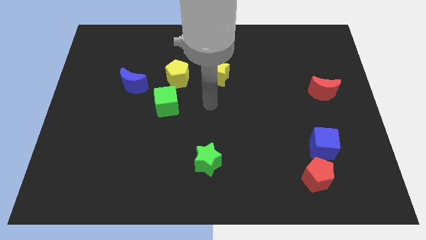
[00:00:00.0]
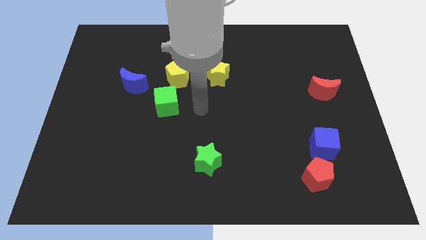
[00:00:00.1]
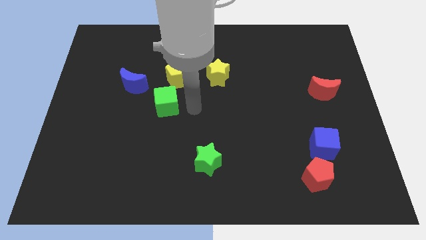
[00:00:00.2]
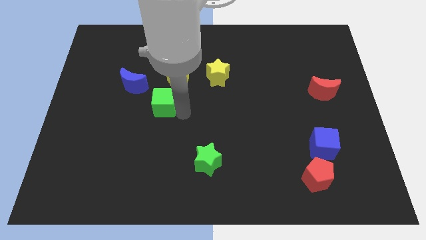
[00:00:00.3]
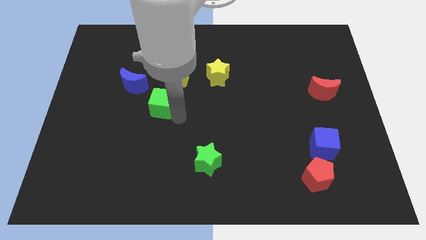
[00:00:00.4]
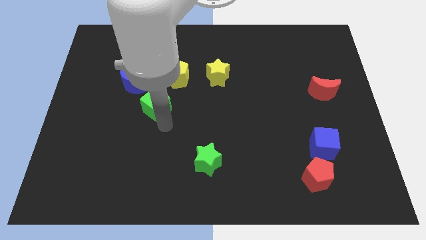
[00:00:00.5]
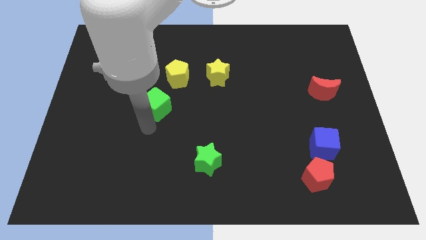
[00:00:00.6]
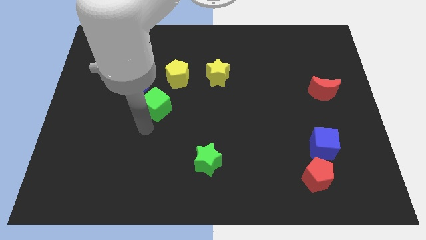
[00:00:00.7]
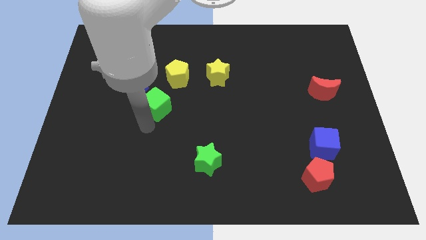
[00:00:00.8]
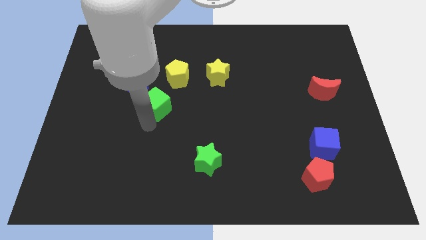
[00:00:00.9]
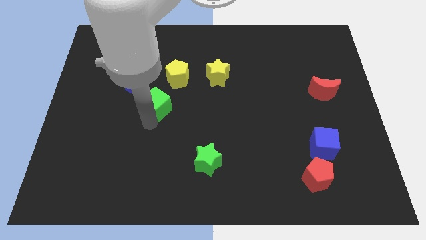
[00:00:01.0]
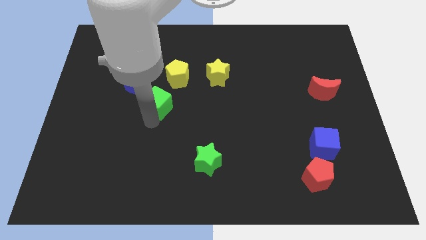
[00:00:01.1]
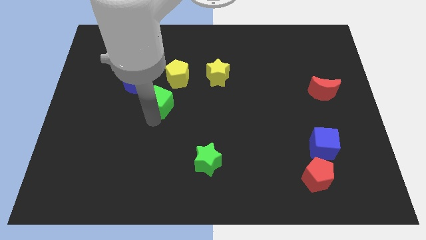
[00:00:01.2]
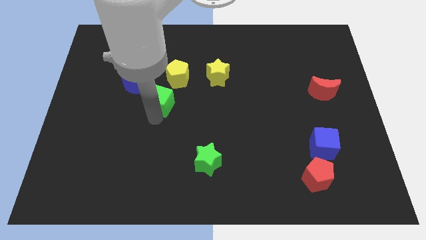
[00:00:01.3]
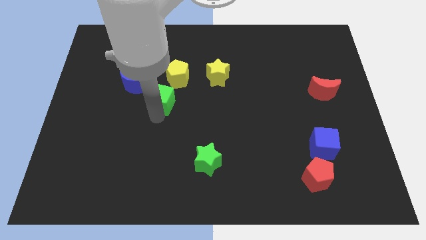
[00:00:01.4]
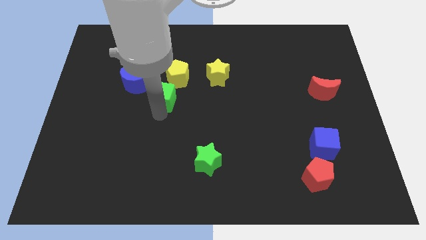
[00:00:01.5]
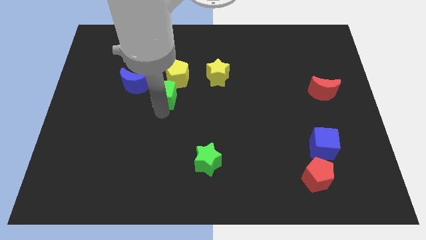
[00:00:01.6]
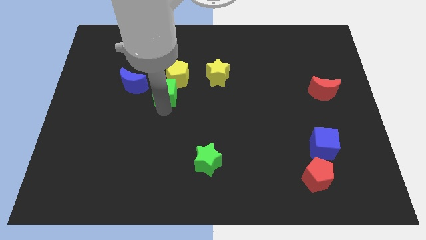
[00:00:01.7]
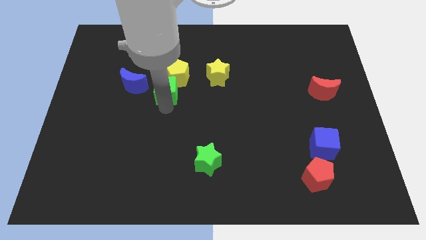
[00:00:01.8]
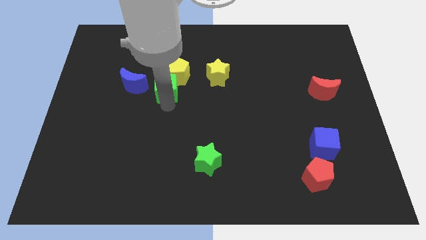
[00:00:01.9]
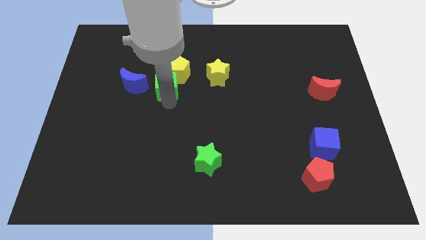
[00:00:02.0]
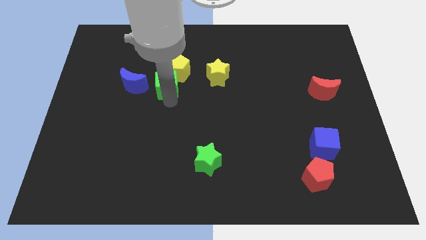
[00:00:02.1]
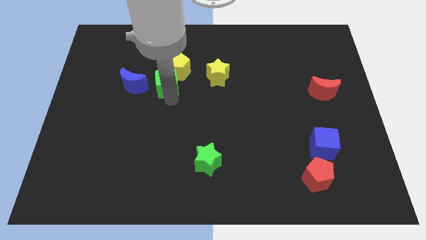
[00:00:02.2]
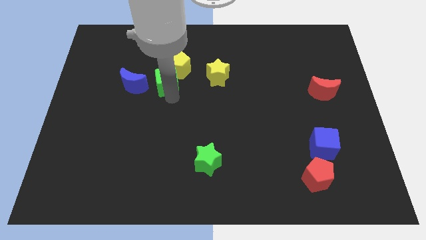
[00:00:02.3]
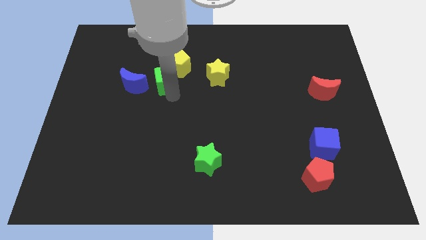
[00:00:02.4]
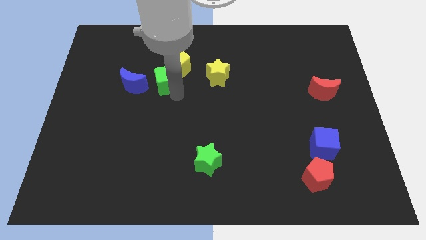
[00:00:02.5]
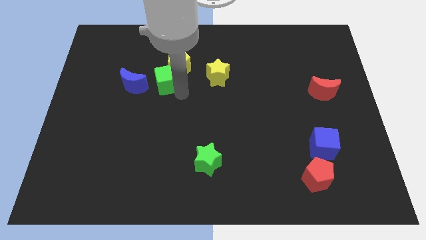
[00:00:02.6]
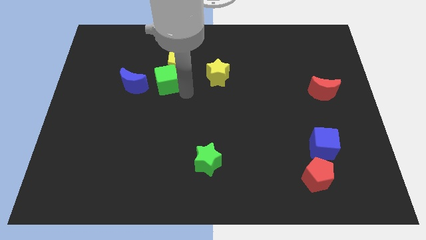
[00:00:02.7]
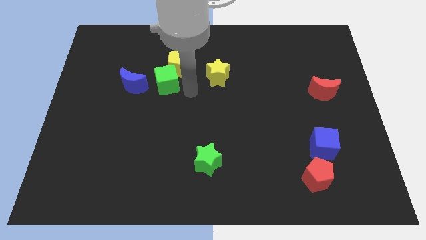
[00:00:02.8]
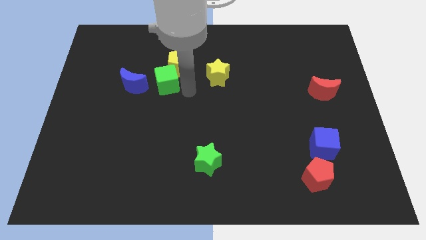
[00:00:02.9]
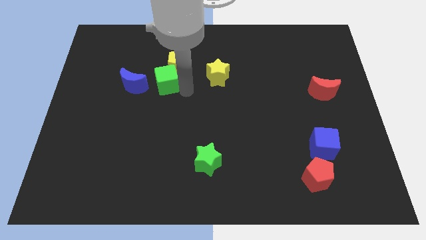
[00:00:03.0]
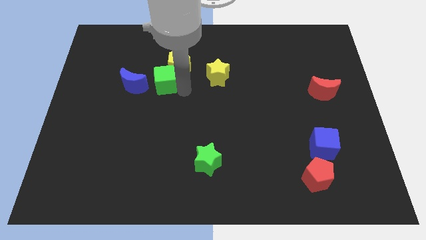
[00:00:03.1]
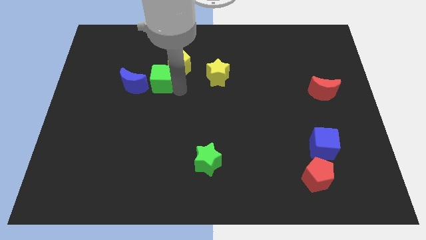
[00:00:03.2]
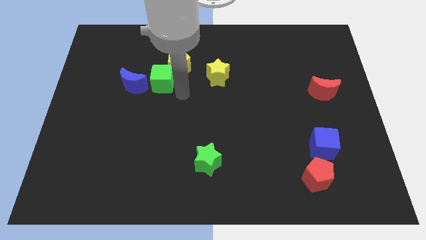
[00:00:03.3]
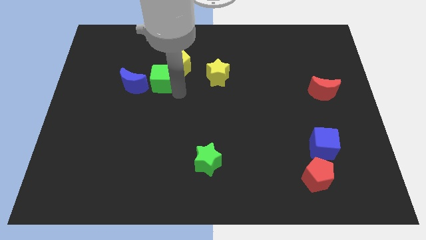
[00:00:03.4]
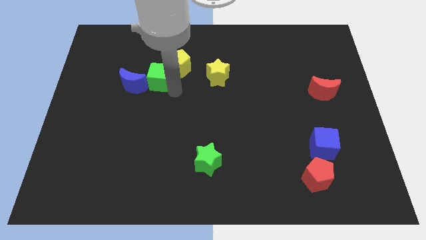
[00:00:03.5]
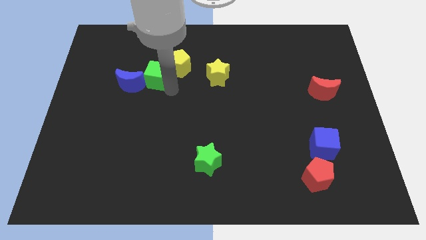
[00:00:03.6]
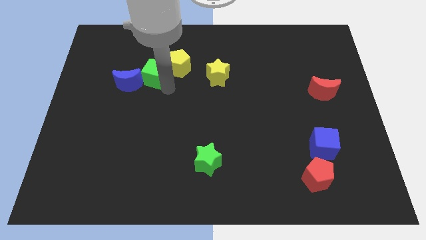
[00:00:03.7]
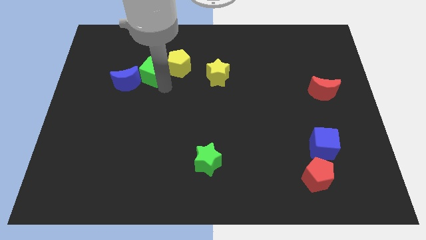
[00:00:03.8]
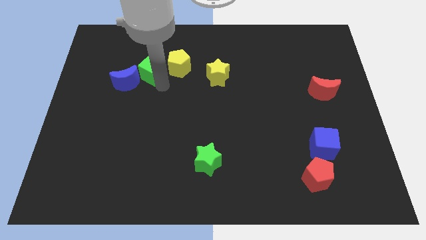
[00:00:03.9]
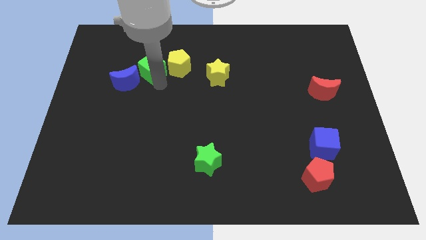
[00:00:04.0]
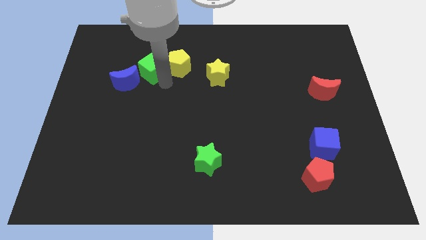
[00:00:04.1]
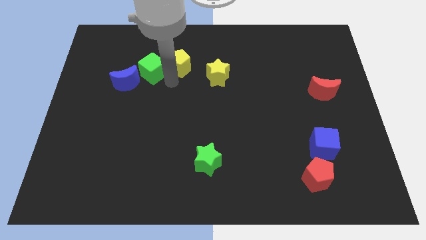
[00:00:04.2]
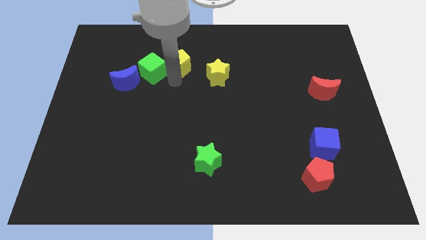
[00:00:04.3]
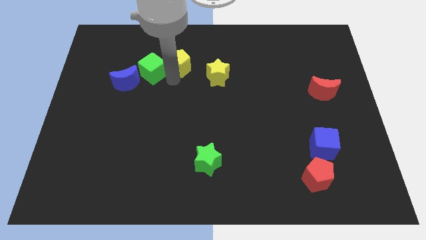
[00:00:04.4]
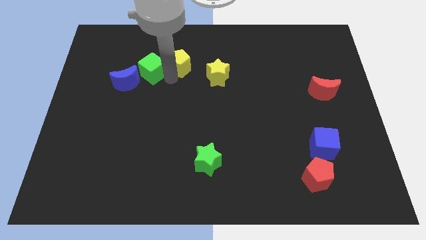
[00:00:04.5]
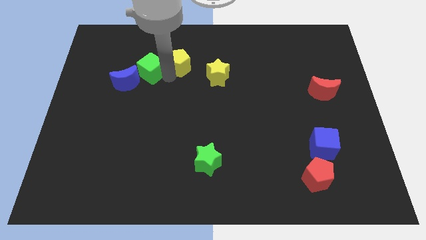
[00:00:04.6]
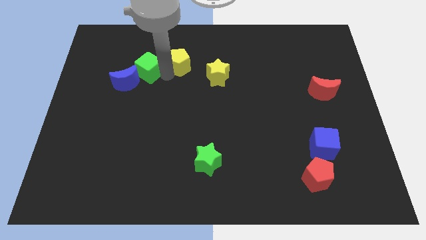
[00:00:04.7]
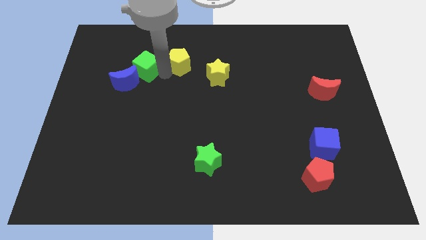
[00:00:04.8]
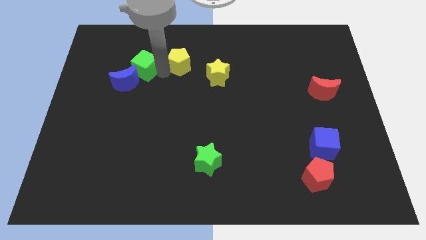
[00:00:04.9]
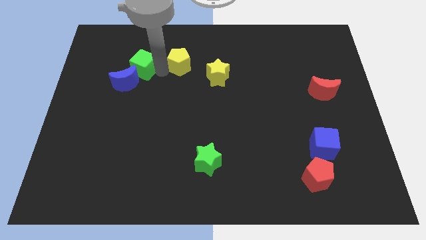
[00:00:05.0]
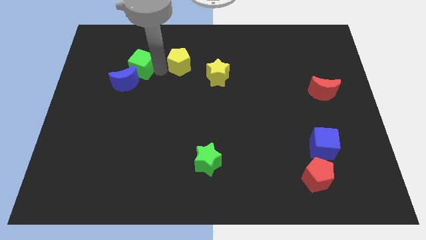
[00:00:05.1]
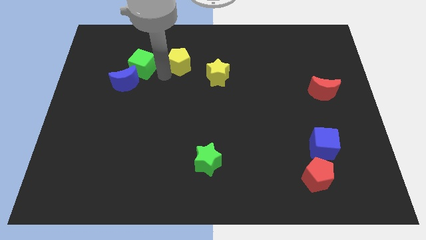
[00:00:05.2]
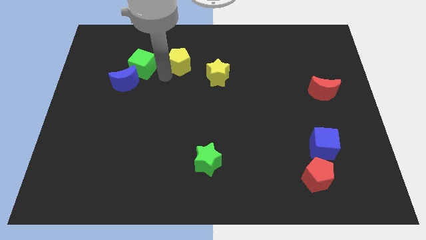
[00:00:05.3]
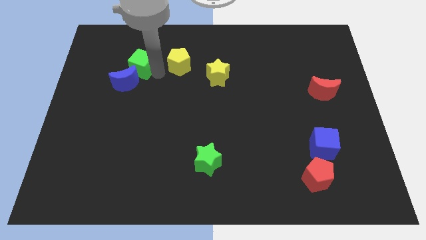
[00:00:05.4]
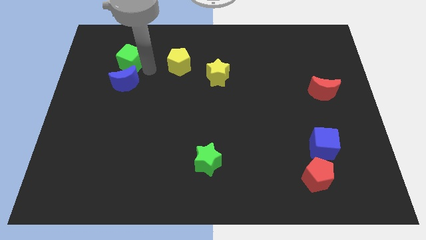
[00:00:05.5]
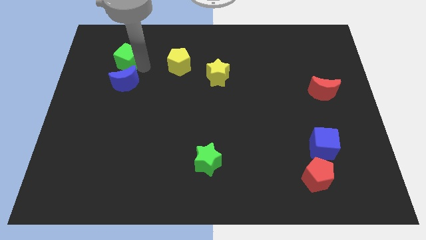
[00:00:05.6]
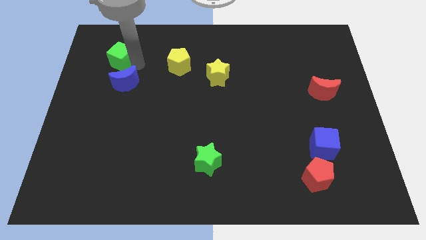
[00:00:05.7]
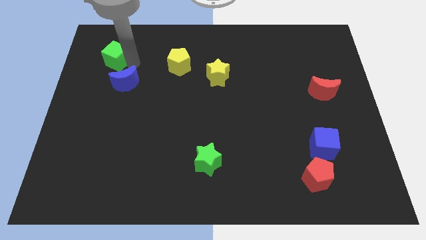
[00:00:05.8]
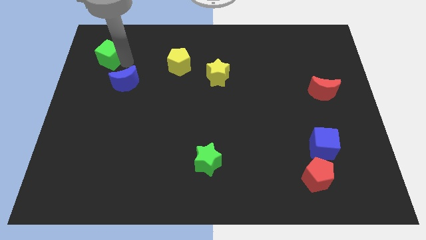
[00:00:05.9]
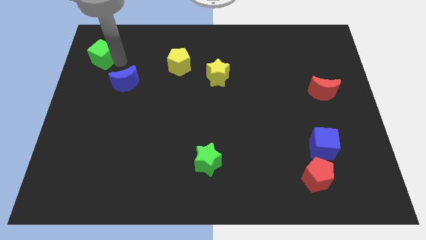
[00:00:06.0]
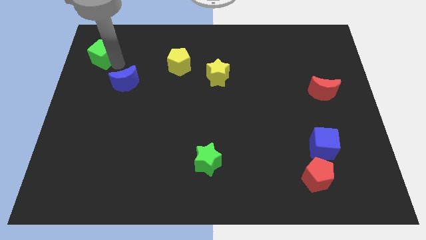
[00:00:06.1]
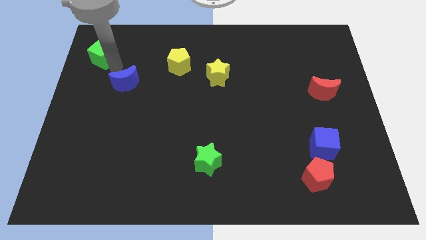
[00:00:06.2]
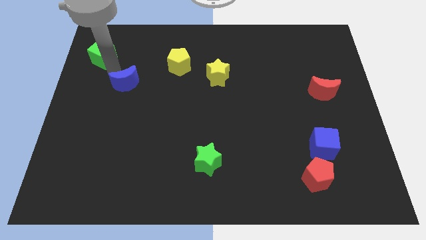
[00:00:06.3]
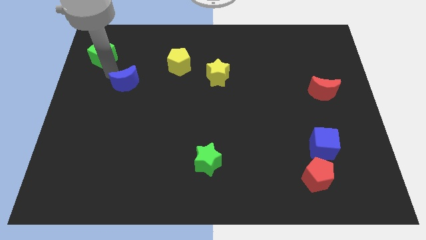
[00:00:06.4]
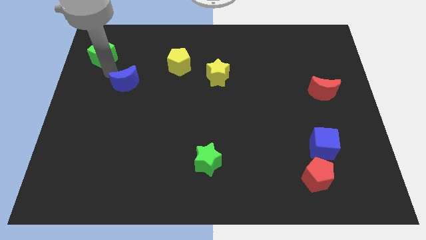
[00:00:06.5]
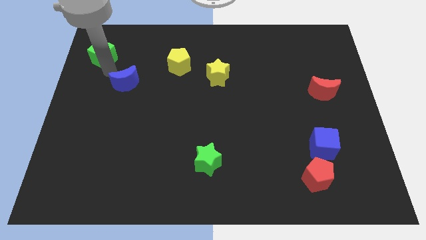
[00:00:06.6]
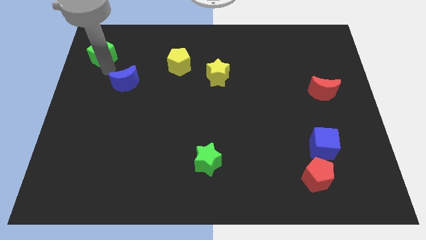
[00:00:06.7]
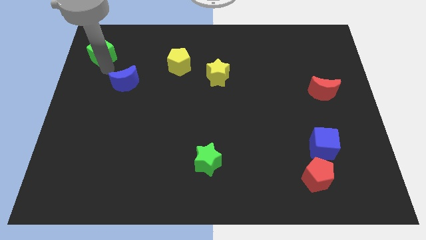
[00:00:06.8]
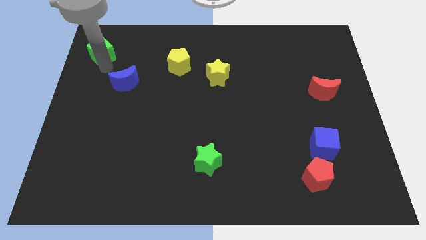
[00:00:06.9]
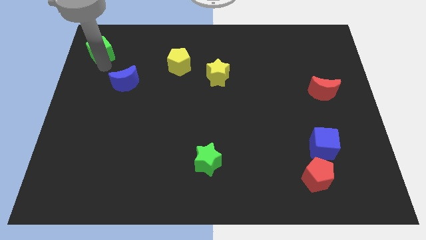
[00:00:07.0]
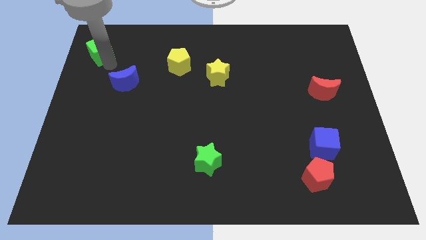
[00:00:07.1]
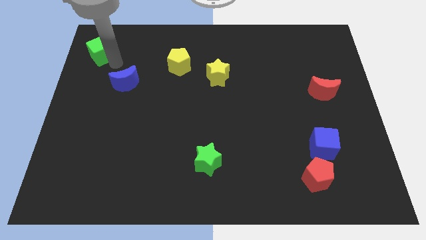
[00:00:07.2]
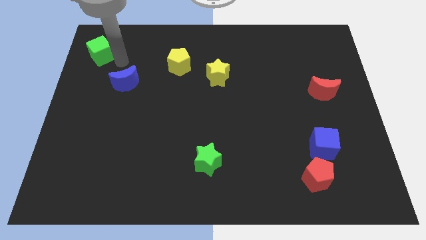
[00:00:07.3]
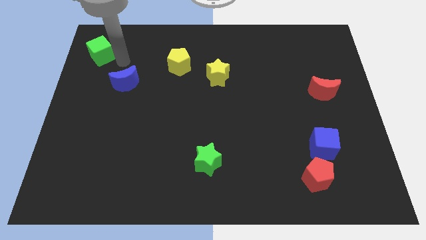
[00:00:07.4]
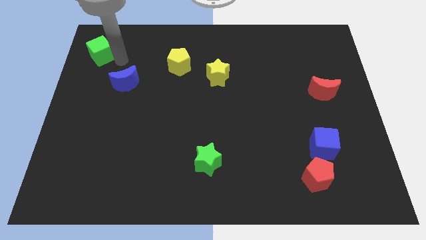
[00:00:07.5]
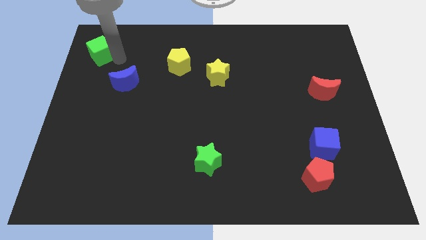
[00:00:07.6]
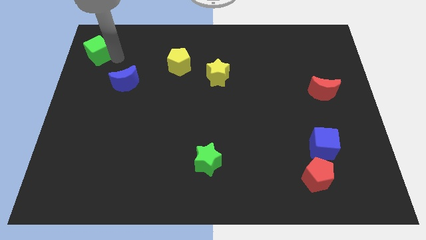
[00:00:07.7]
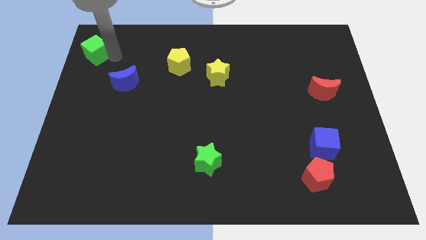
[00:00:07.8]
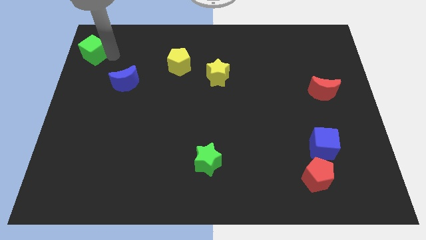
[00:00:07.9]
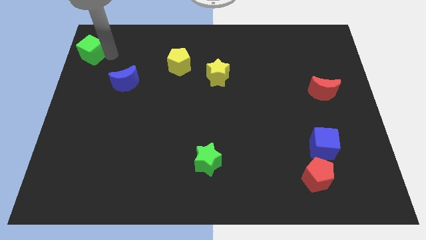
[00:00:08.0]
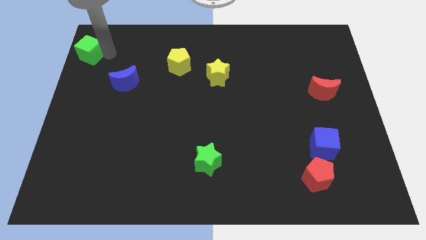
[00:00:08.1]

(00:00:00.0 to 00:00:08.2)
move the green cube to the upper left corner
